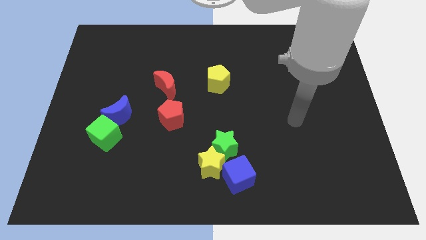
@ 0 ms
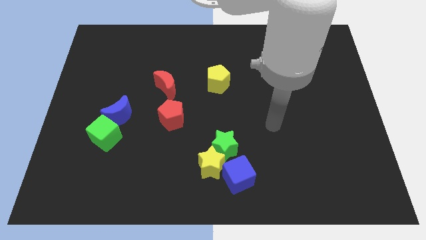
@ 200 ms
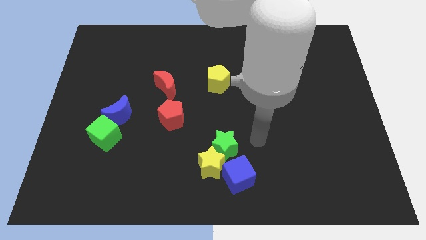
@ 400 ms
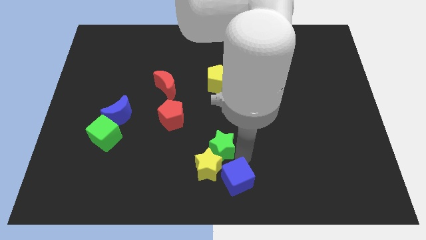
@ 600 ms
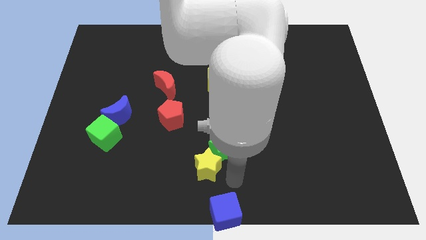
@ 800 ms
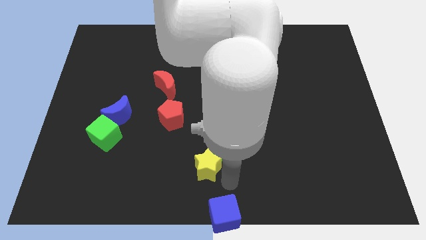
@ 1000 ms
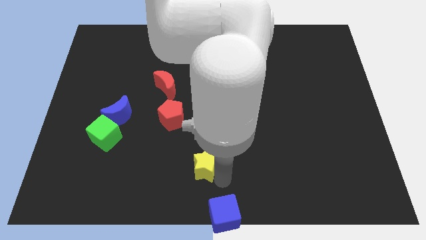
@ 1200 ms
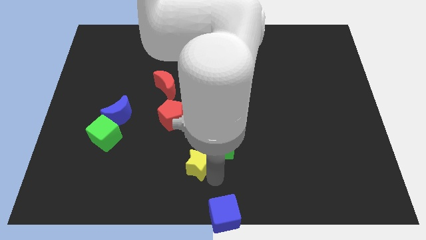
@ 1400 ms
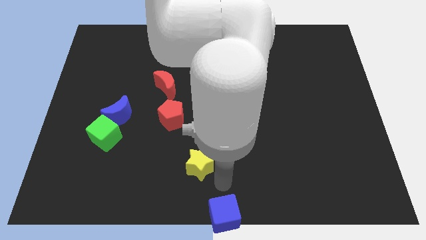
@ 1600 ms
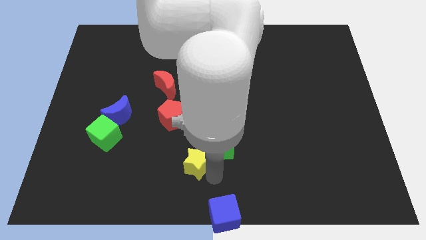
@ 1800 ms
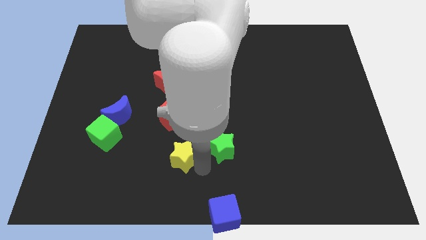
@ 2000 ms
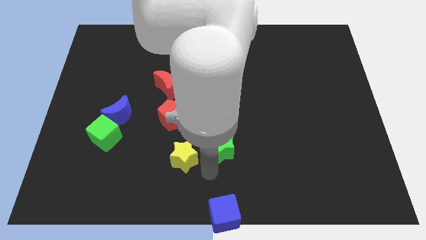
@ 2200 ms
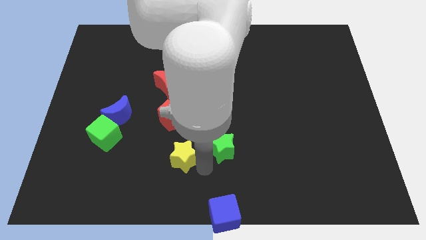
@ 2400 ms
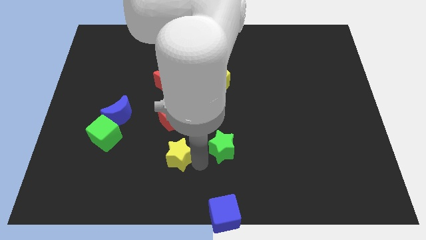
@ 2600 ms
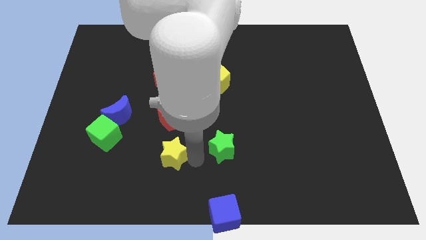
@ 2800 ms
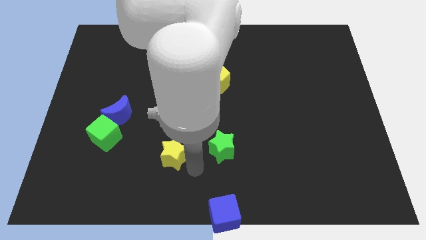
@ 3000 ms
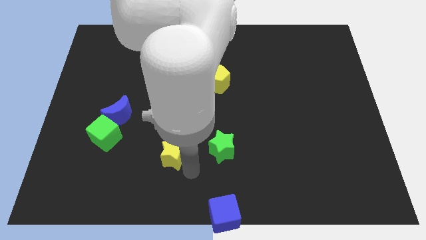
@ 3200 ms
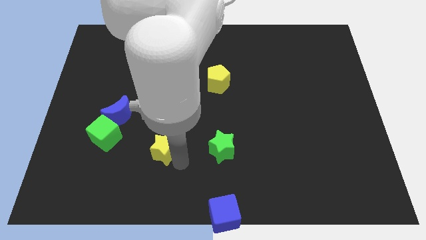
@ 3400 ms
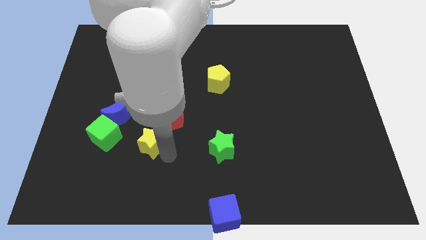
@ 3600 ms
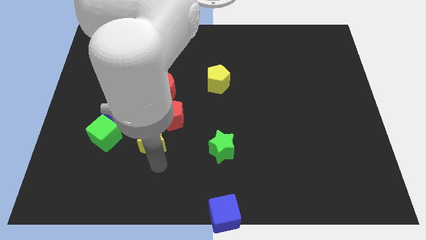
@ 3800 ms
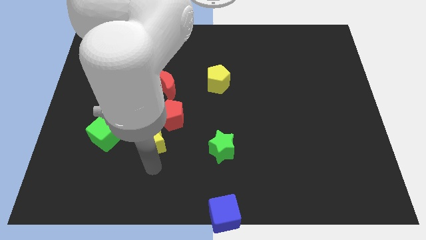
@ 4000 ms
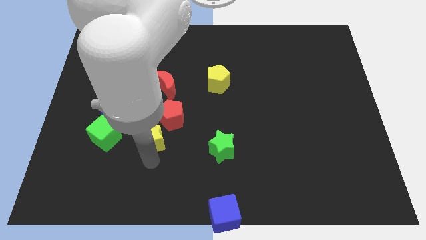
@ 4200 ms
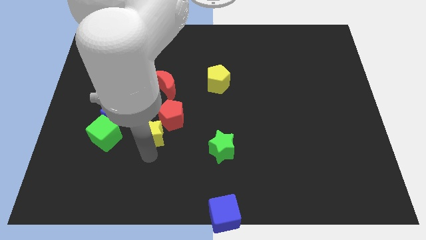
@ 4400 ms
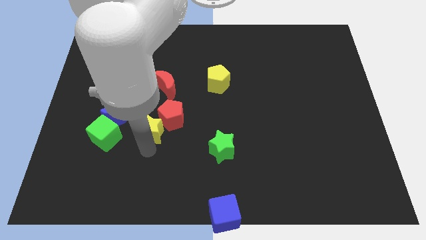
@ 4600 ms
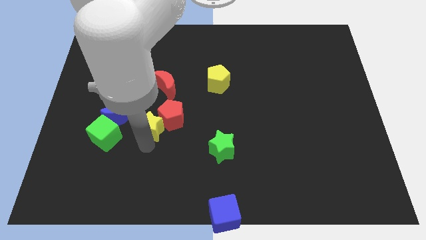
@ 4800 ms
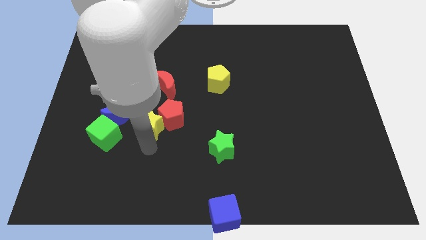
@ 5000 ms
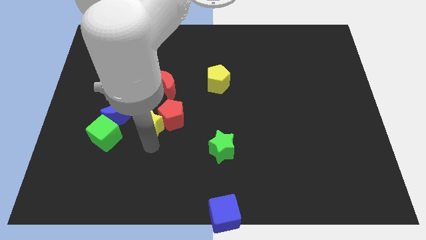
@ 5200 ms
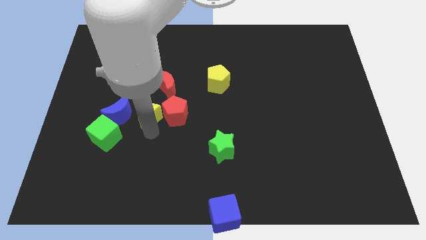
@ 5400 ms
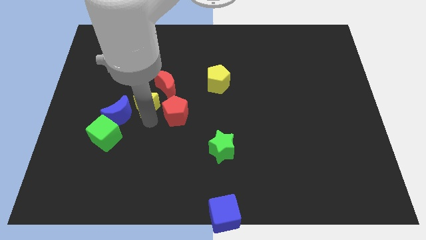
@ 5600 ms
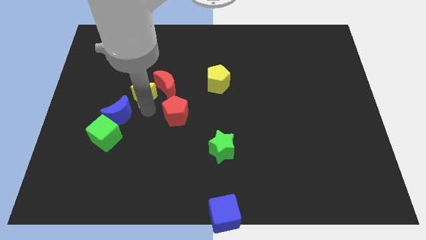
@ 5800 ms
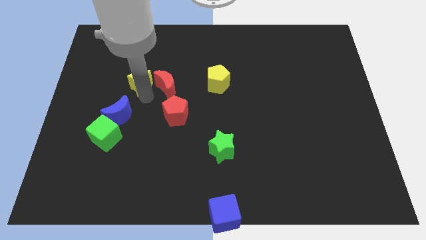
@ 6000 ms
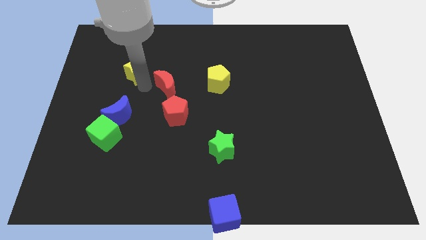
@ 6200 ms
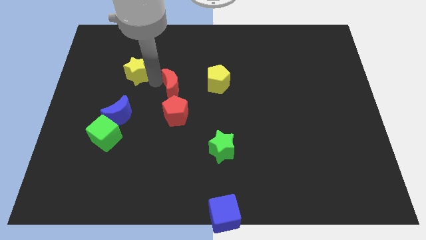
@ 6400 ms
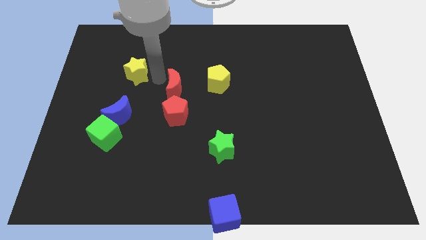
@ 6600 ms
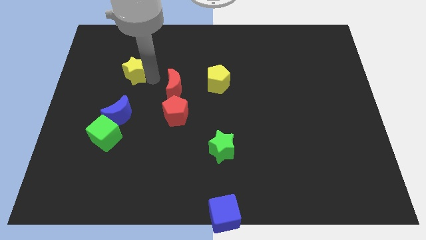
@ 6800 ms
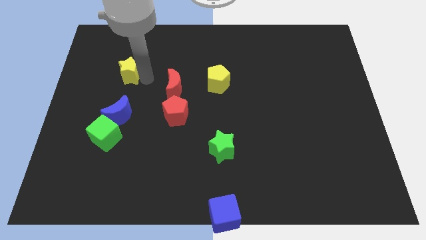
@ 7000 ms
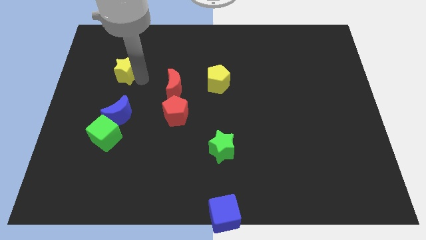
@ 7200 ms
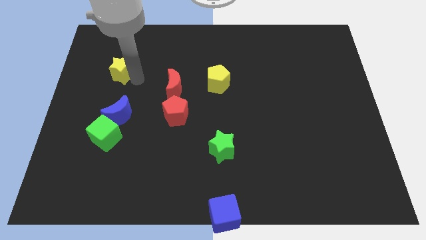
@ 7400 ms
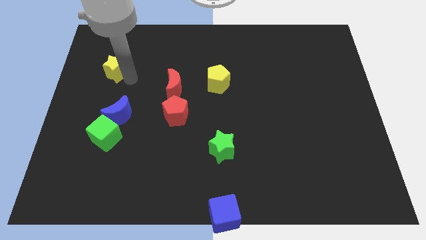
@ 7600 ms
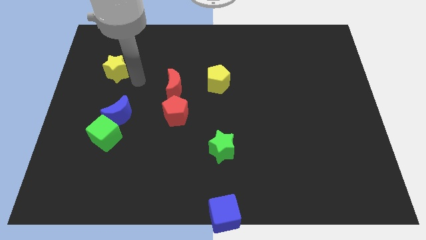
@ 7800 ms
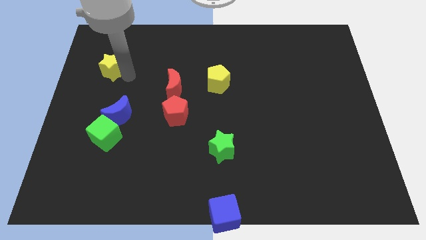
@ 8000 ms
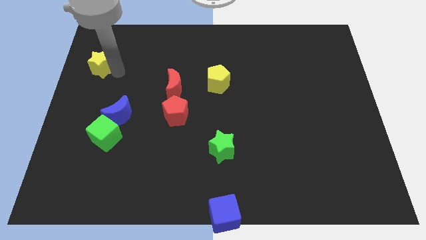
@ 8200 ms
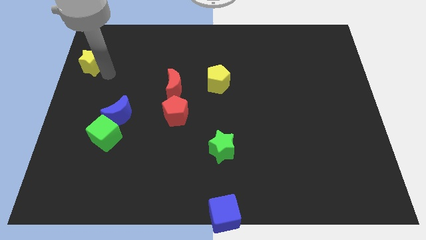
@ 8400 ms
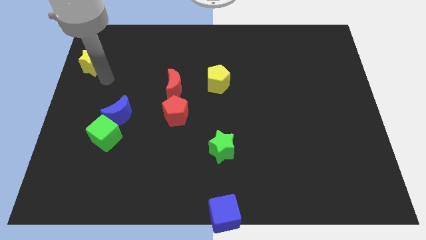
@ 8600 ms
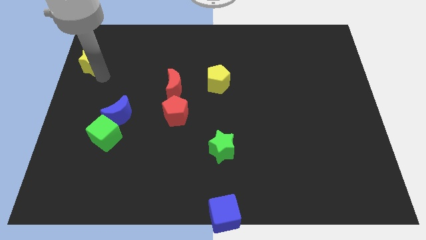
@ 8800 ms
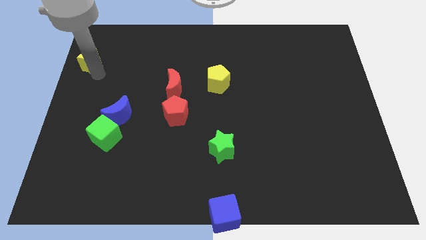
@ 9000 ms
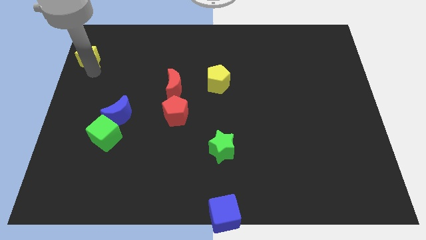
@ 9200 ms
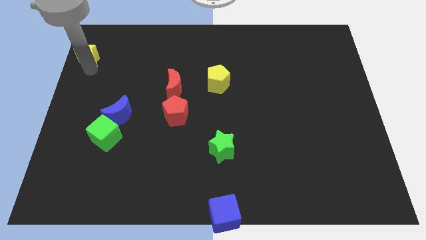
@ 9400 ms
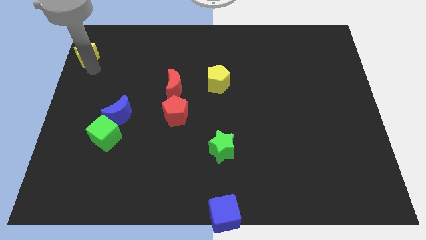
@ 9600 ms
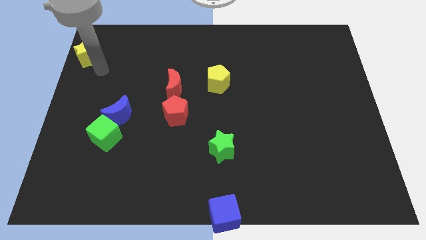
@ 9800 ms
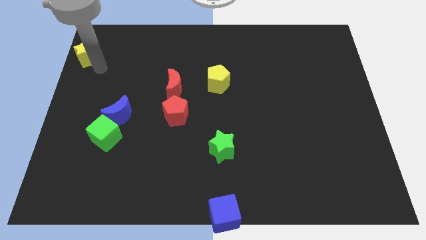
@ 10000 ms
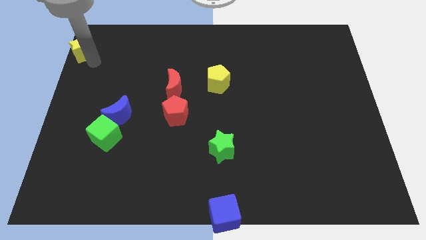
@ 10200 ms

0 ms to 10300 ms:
push the yellow star to the top left

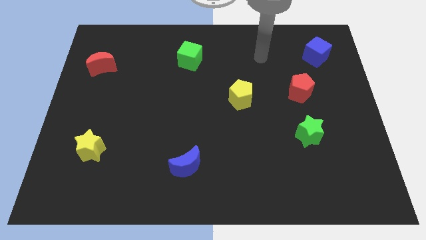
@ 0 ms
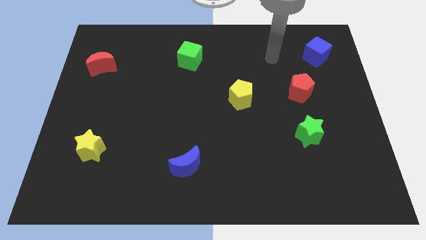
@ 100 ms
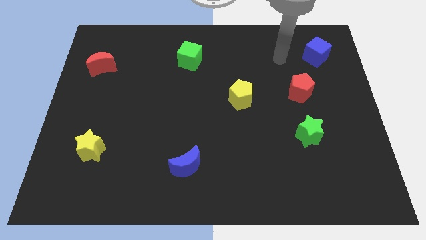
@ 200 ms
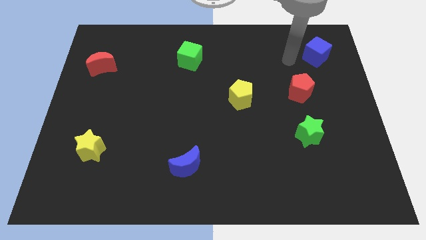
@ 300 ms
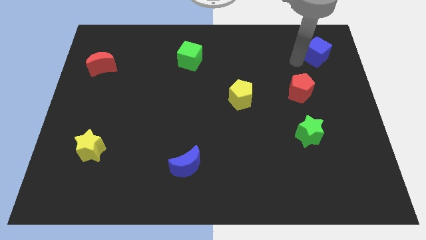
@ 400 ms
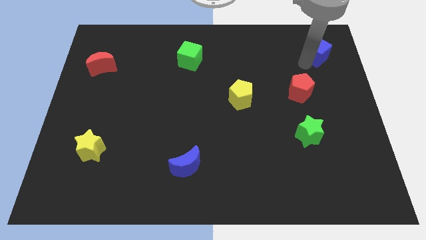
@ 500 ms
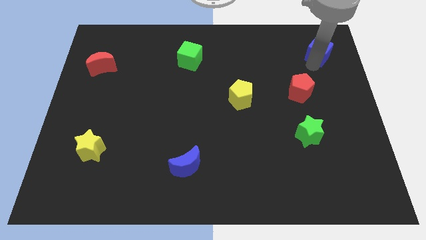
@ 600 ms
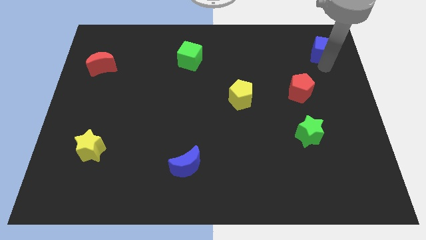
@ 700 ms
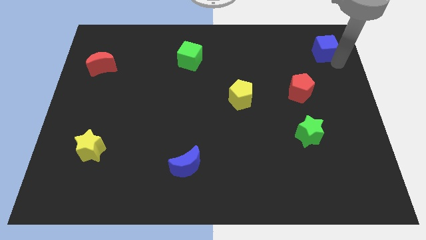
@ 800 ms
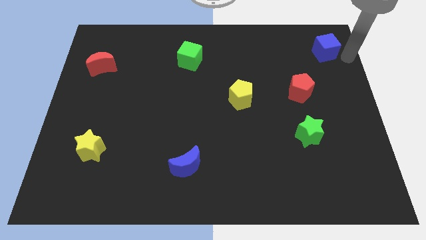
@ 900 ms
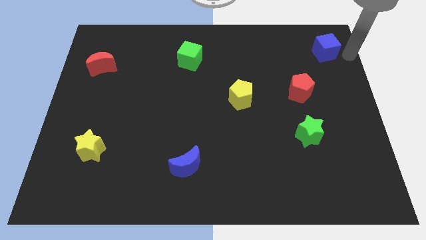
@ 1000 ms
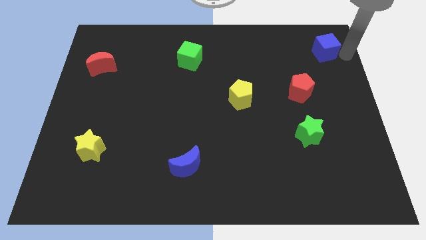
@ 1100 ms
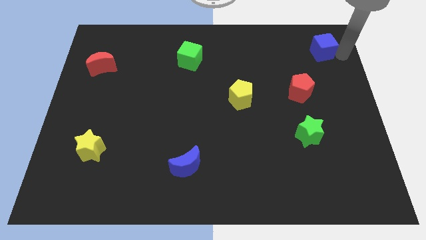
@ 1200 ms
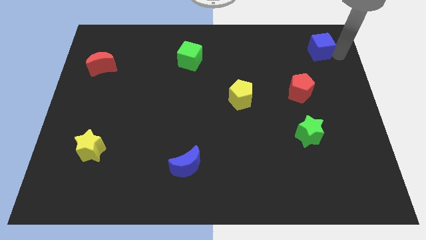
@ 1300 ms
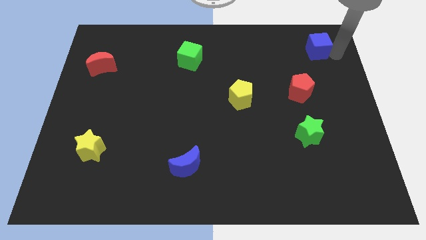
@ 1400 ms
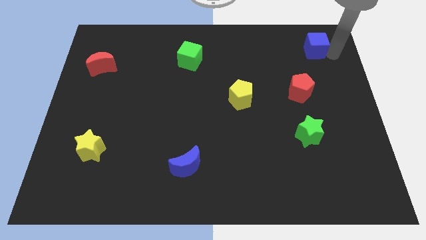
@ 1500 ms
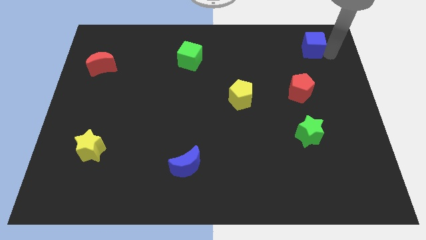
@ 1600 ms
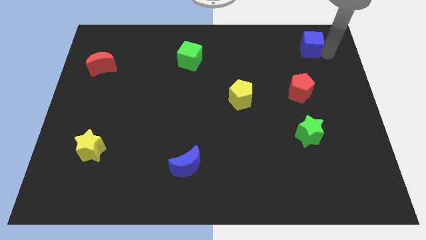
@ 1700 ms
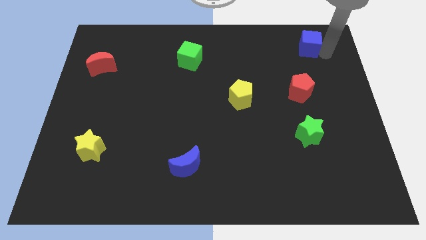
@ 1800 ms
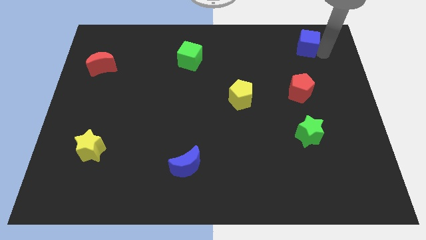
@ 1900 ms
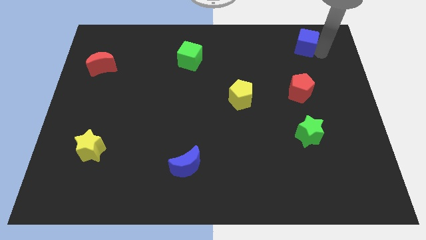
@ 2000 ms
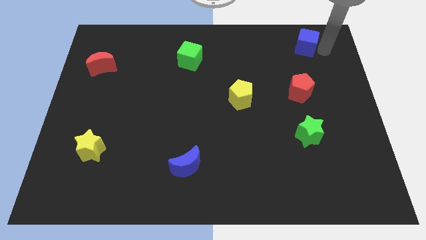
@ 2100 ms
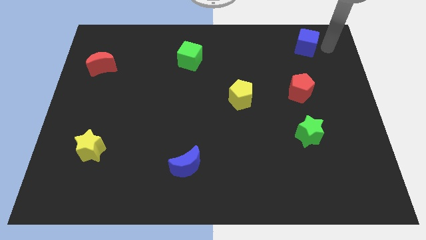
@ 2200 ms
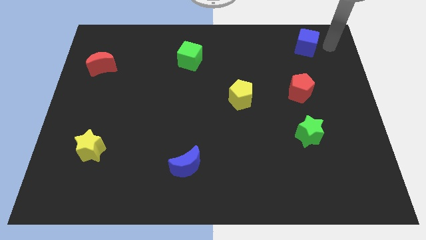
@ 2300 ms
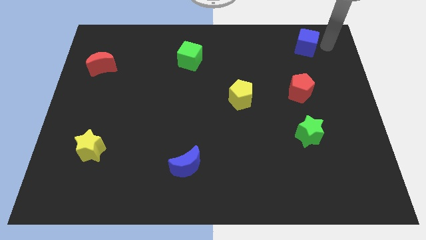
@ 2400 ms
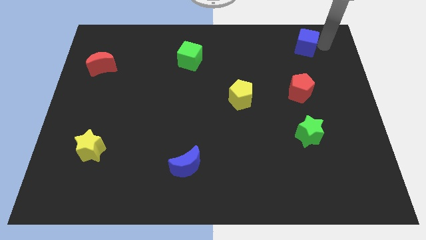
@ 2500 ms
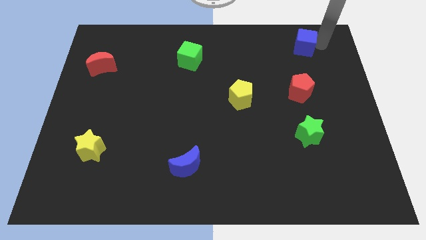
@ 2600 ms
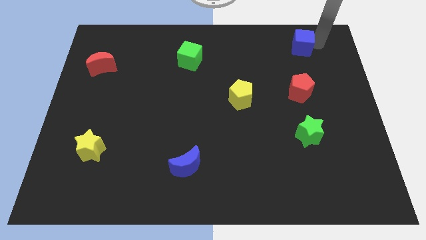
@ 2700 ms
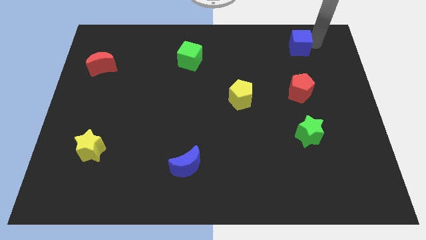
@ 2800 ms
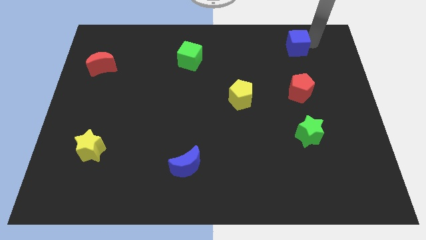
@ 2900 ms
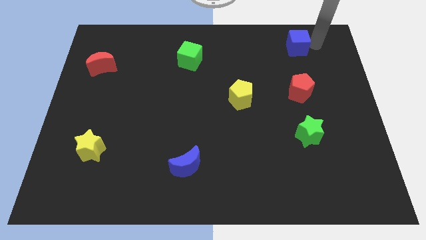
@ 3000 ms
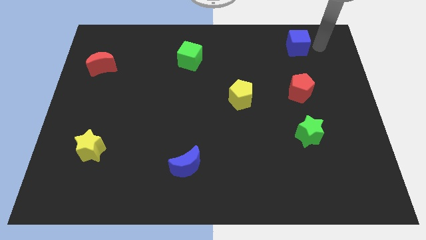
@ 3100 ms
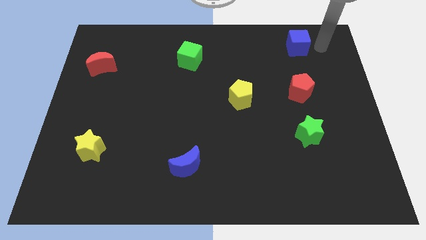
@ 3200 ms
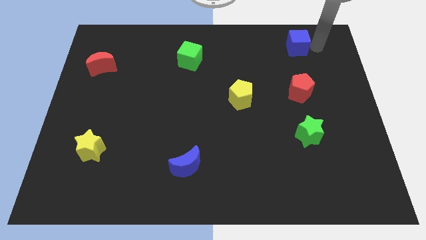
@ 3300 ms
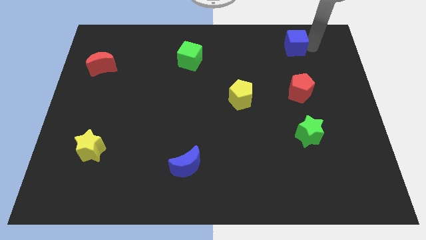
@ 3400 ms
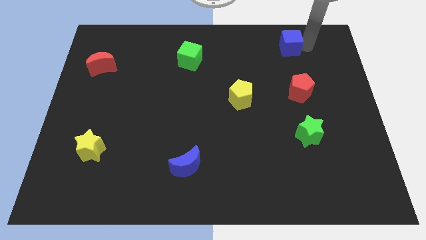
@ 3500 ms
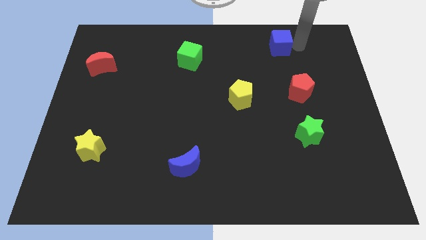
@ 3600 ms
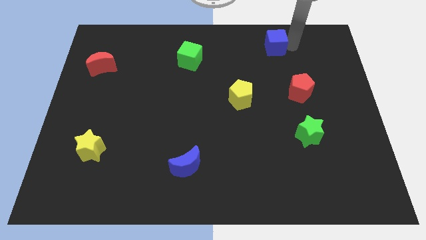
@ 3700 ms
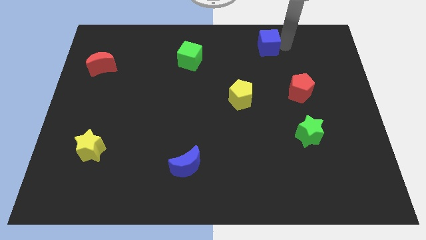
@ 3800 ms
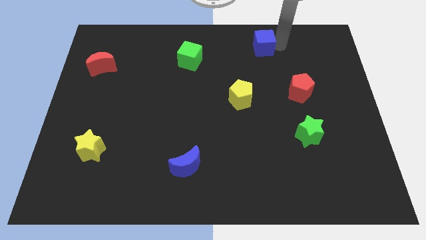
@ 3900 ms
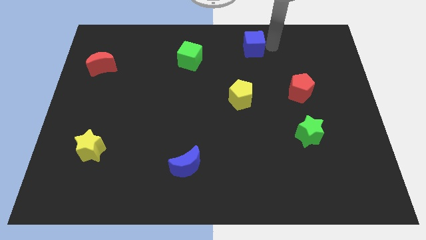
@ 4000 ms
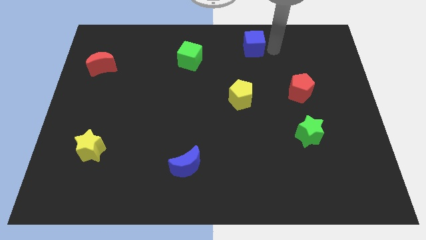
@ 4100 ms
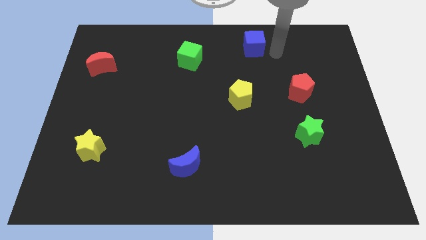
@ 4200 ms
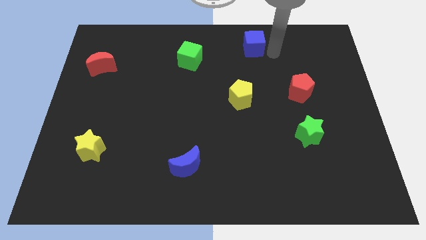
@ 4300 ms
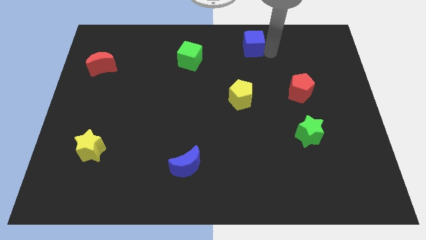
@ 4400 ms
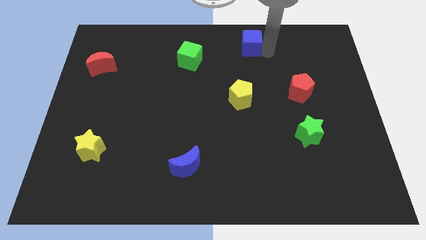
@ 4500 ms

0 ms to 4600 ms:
put the blue cube to the top
